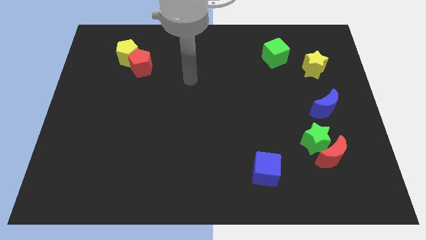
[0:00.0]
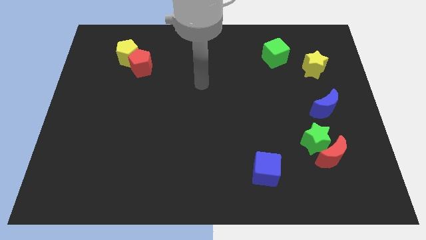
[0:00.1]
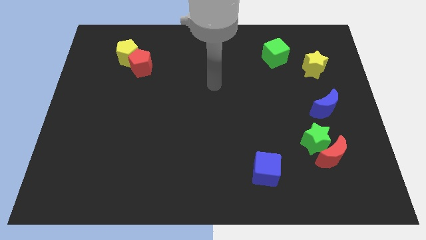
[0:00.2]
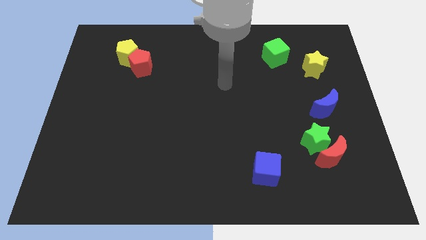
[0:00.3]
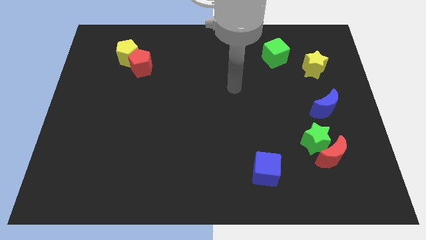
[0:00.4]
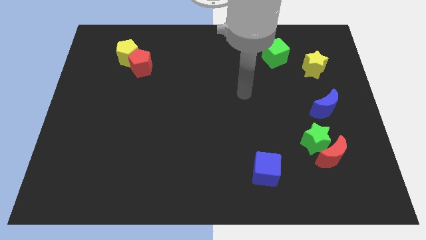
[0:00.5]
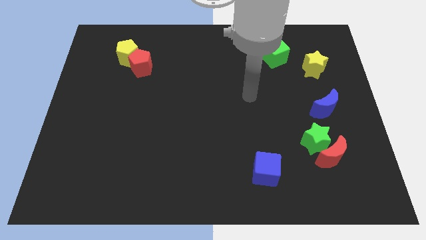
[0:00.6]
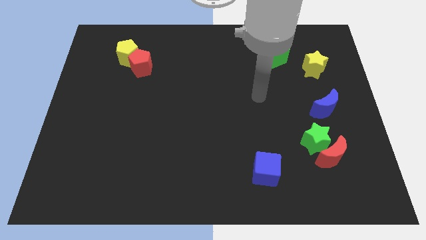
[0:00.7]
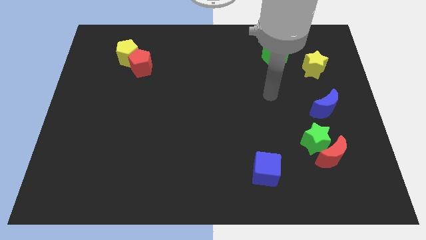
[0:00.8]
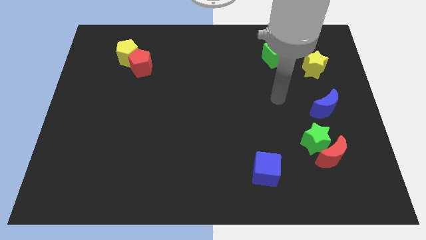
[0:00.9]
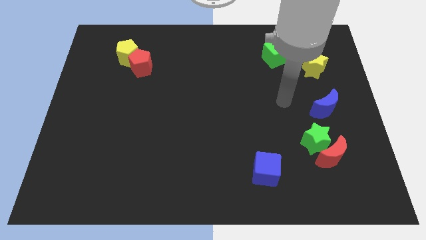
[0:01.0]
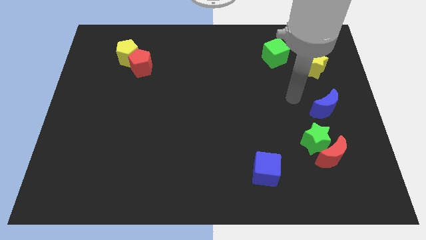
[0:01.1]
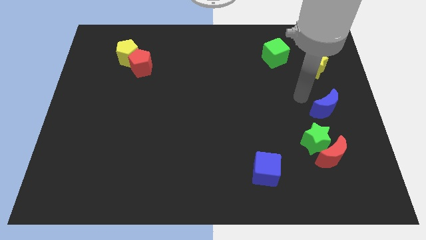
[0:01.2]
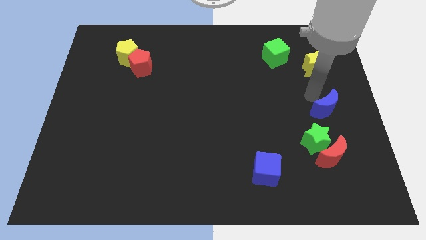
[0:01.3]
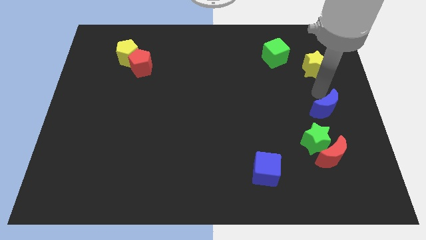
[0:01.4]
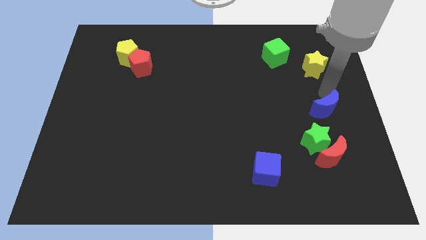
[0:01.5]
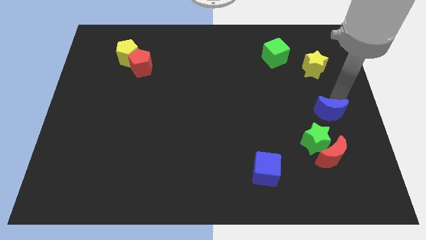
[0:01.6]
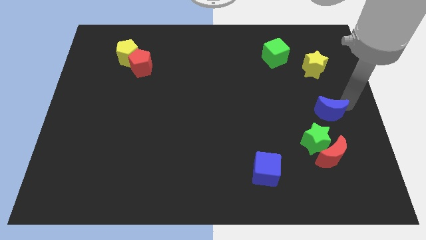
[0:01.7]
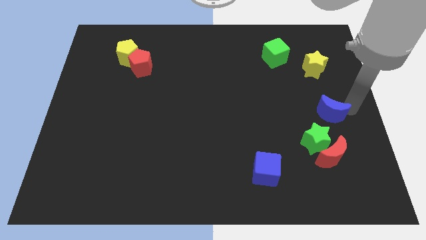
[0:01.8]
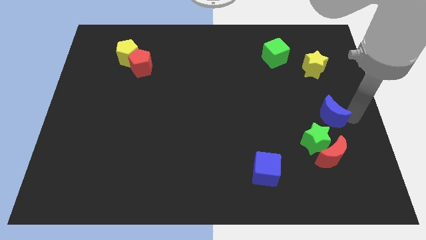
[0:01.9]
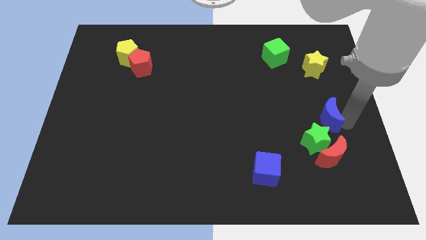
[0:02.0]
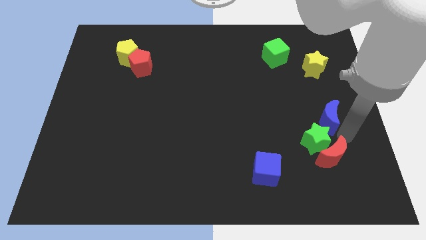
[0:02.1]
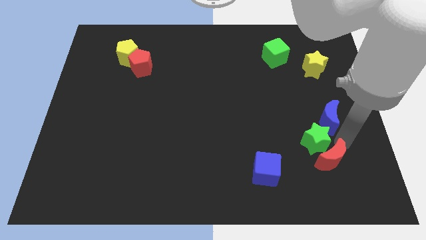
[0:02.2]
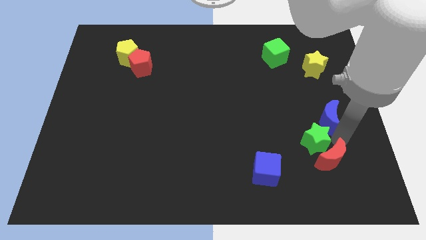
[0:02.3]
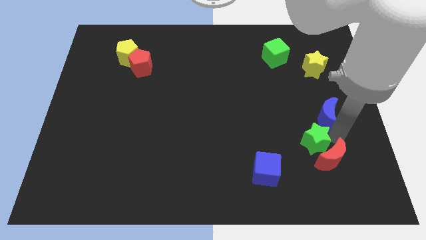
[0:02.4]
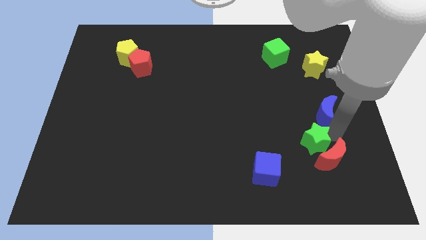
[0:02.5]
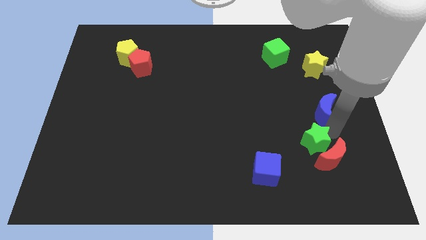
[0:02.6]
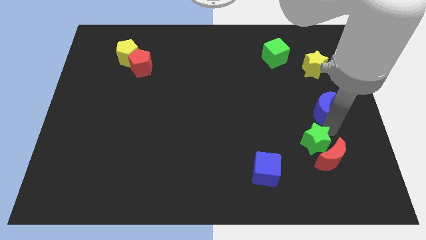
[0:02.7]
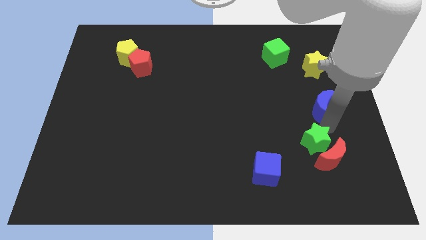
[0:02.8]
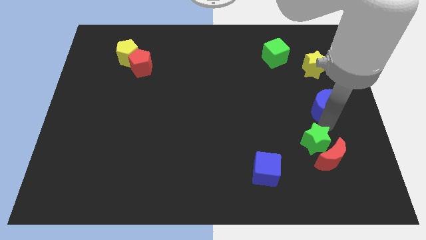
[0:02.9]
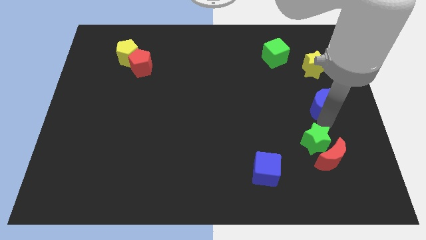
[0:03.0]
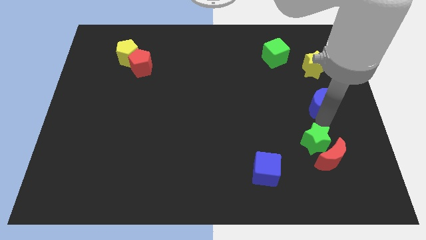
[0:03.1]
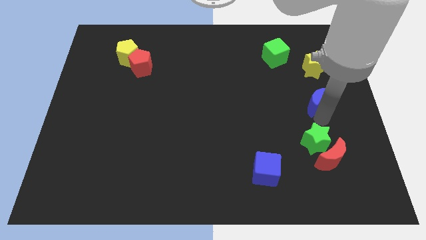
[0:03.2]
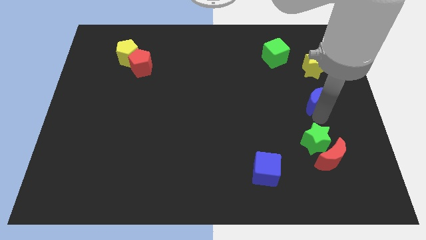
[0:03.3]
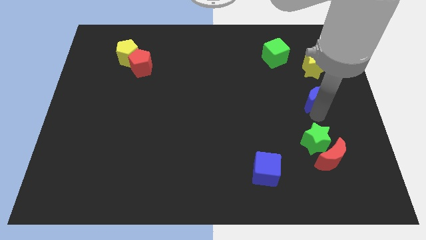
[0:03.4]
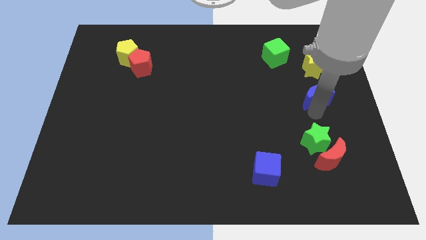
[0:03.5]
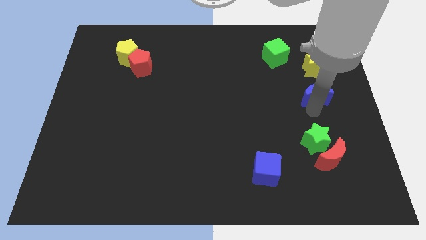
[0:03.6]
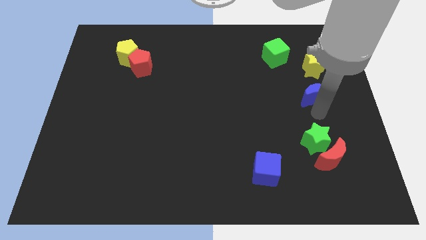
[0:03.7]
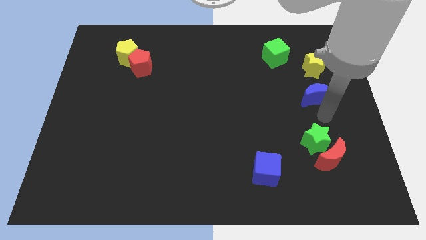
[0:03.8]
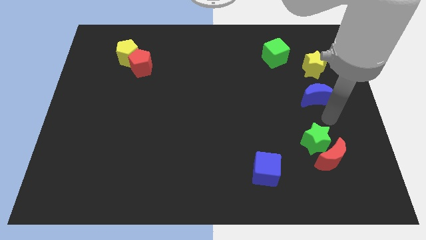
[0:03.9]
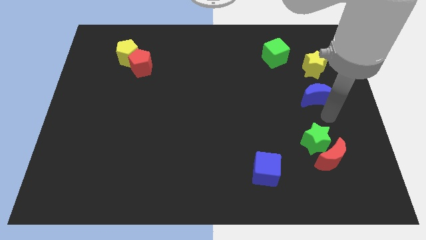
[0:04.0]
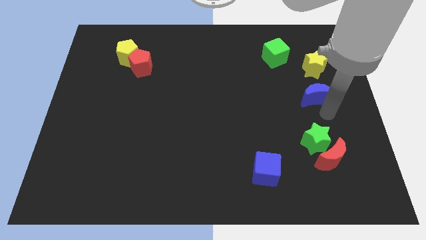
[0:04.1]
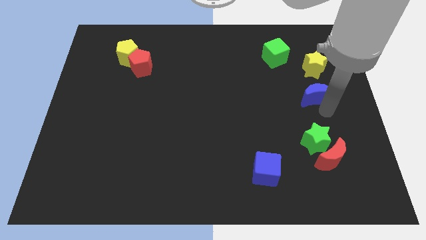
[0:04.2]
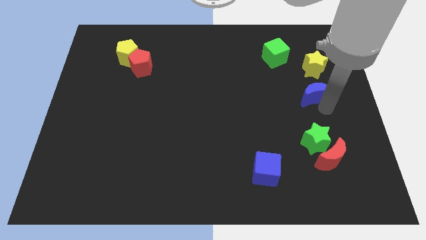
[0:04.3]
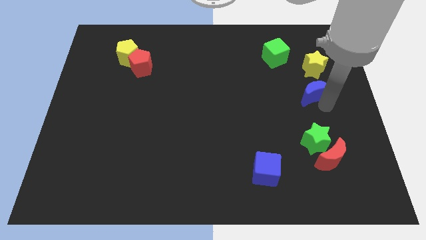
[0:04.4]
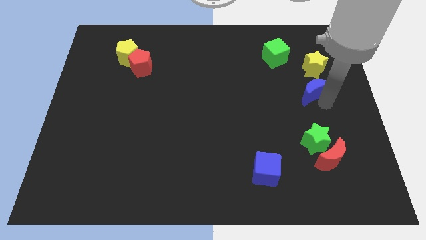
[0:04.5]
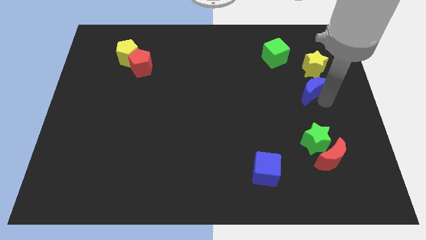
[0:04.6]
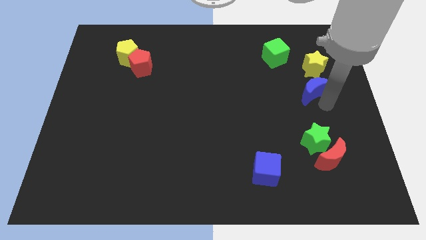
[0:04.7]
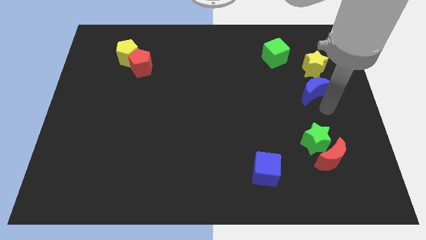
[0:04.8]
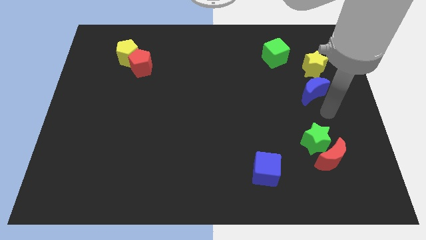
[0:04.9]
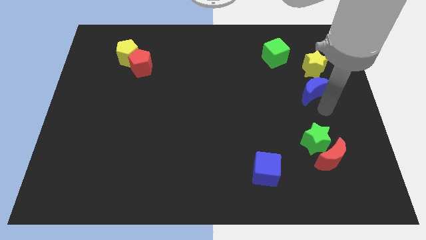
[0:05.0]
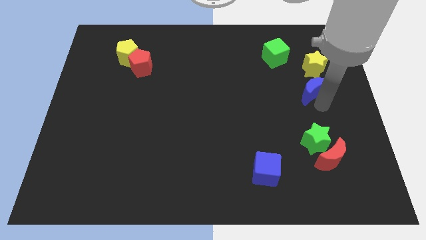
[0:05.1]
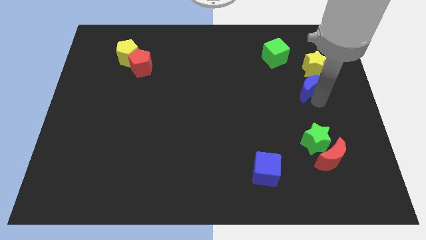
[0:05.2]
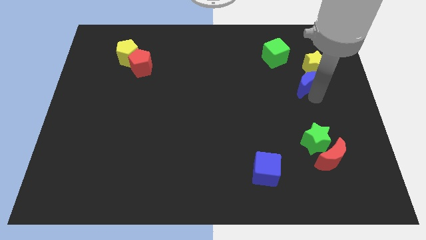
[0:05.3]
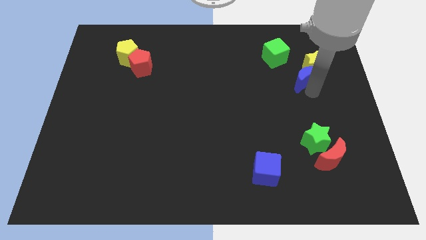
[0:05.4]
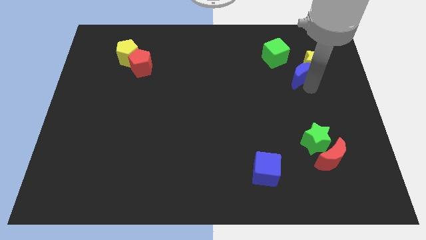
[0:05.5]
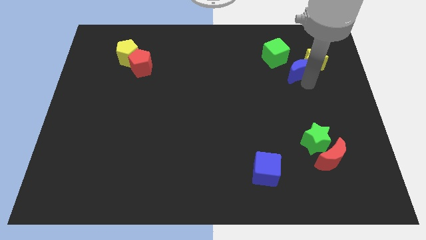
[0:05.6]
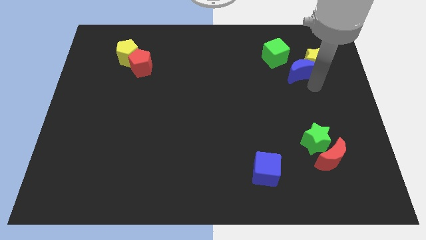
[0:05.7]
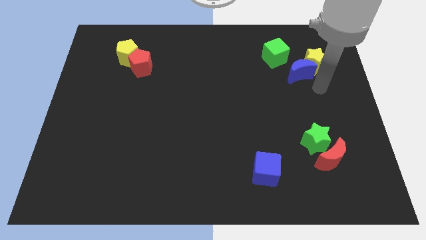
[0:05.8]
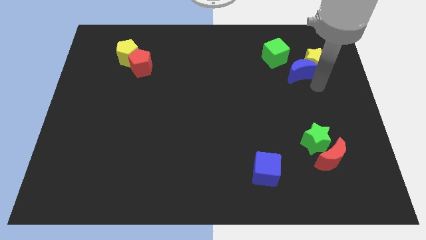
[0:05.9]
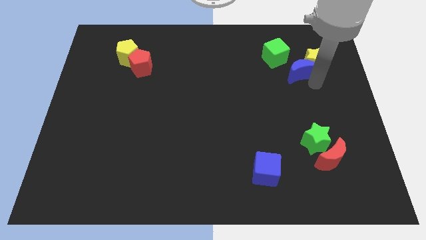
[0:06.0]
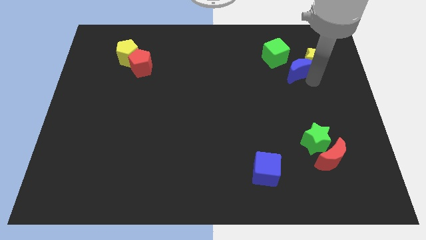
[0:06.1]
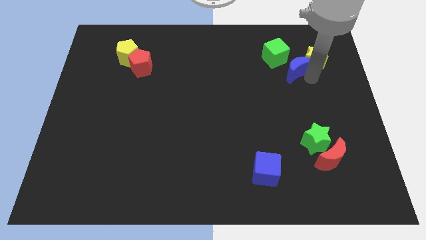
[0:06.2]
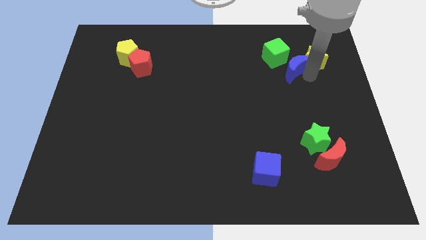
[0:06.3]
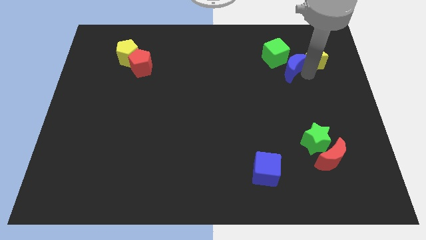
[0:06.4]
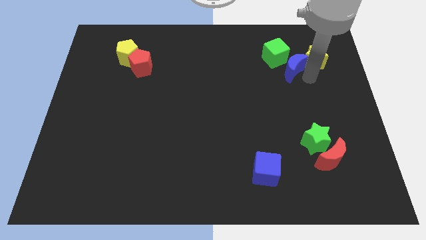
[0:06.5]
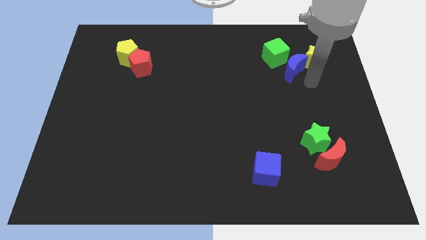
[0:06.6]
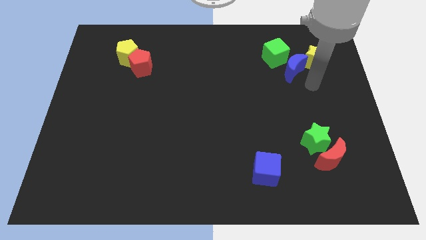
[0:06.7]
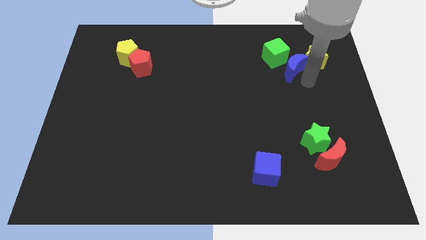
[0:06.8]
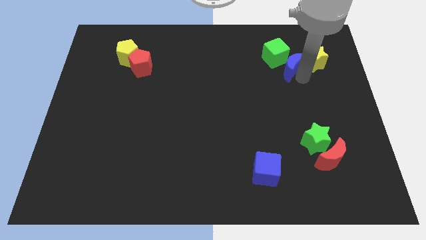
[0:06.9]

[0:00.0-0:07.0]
move the blue moon close to the green cube

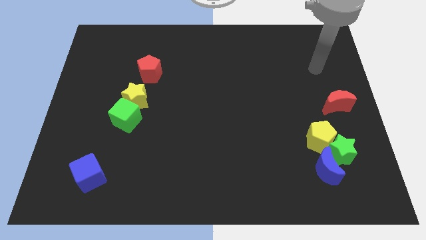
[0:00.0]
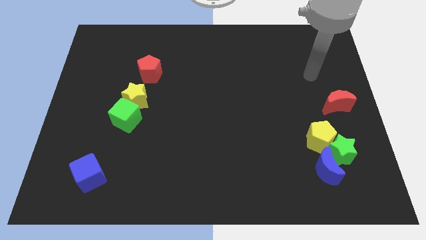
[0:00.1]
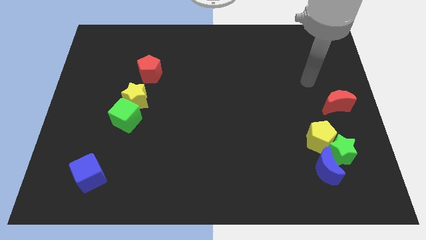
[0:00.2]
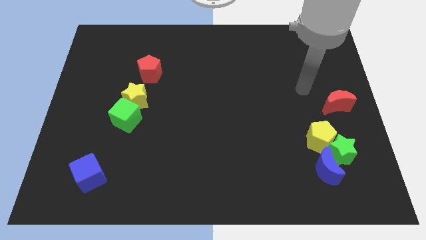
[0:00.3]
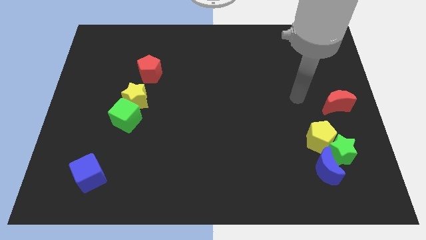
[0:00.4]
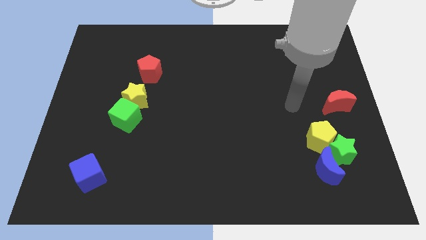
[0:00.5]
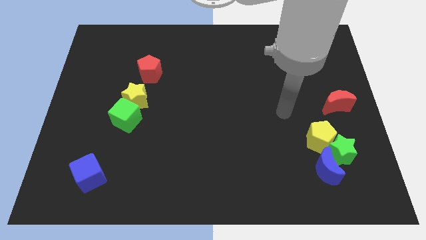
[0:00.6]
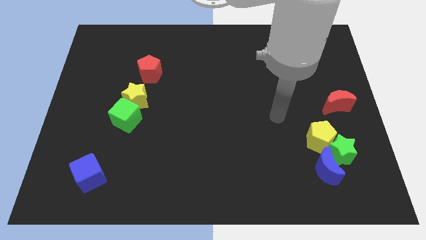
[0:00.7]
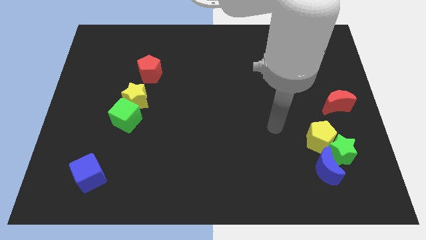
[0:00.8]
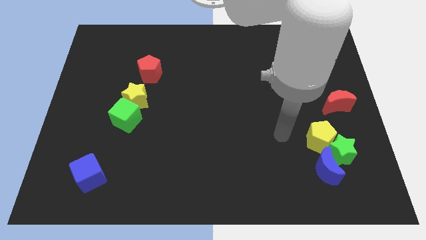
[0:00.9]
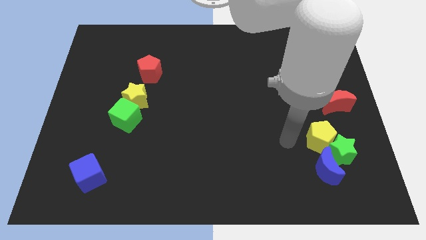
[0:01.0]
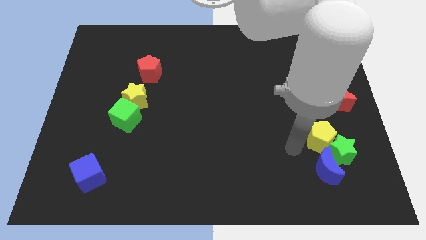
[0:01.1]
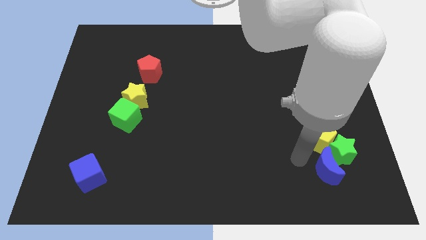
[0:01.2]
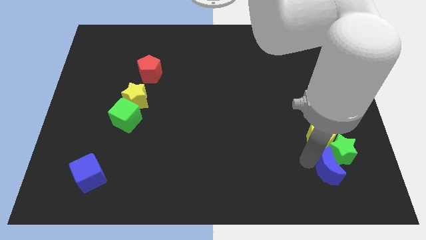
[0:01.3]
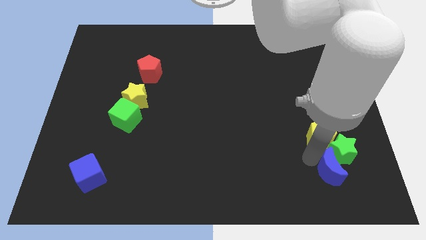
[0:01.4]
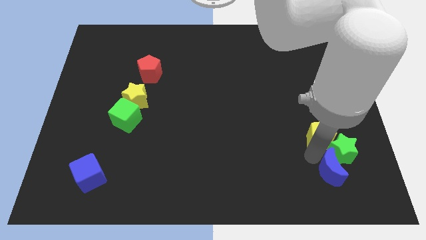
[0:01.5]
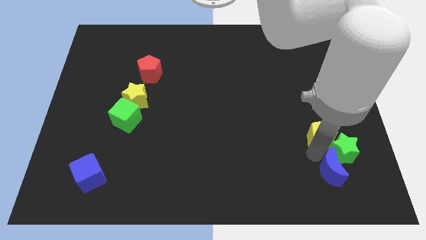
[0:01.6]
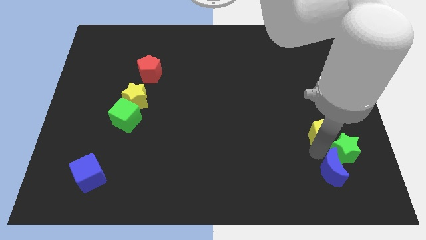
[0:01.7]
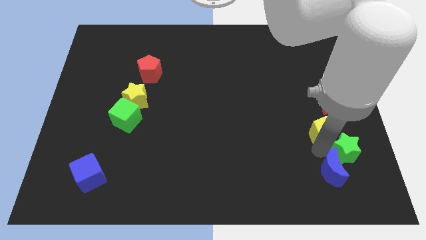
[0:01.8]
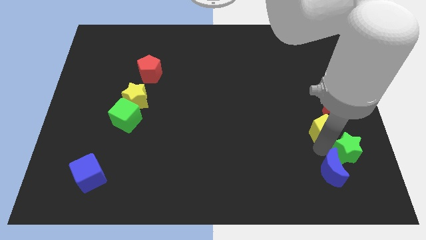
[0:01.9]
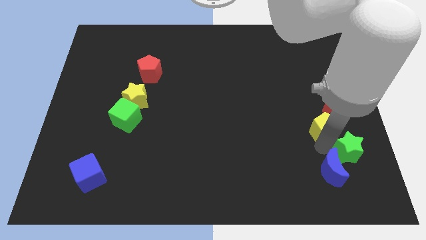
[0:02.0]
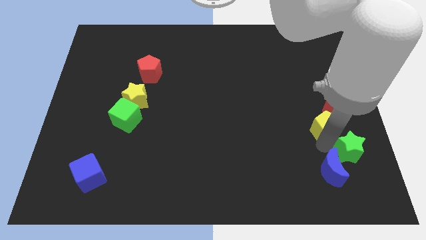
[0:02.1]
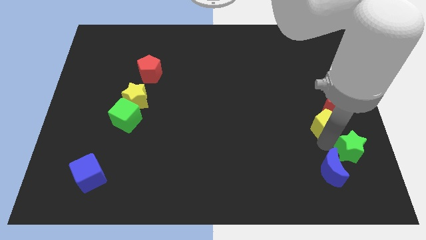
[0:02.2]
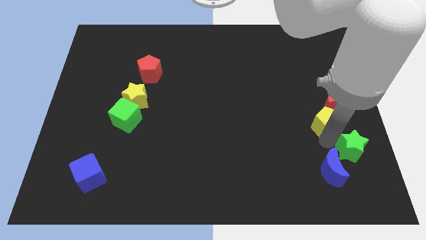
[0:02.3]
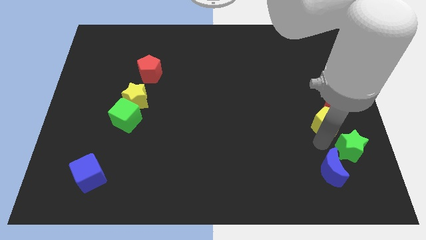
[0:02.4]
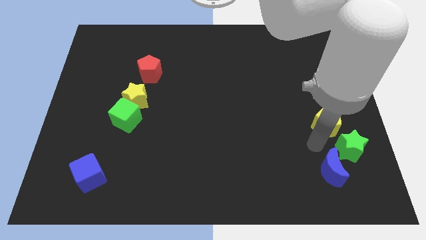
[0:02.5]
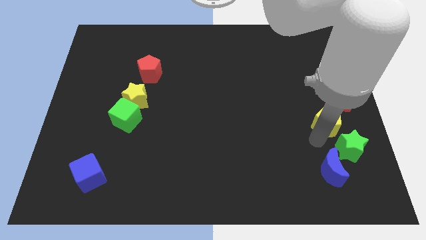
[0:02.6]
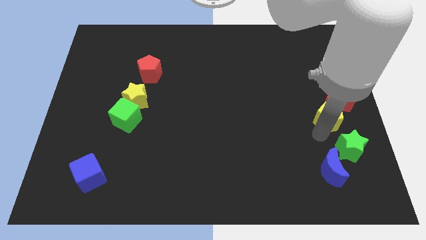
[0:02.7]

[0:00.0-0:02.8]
move the yellow pentagon close to the red moon
